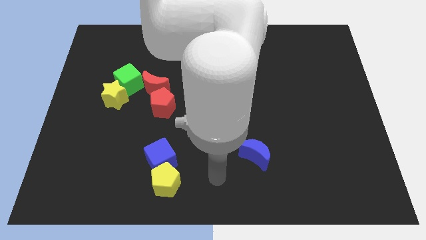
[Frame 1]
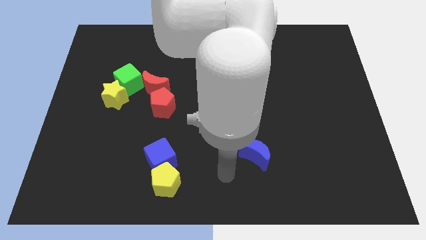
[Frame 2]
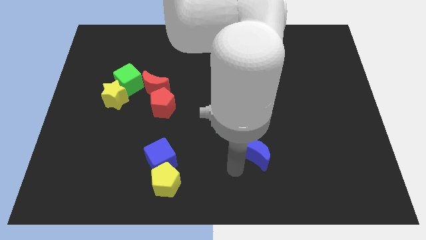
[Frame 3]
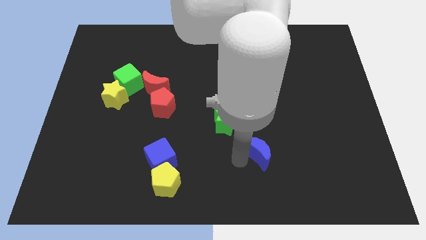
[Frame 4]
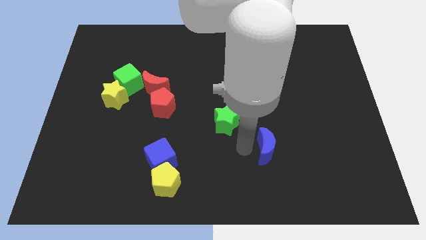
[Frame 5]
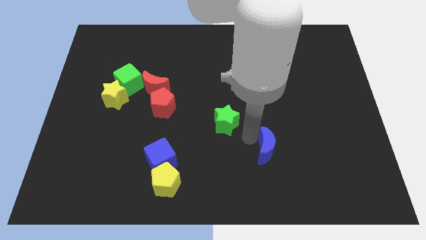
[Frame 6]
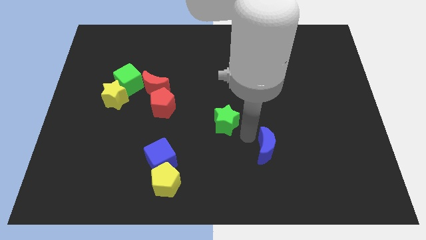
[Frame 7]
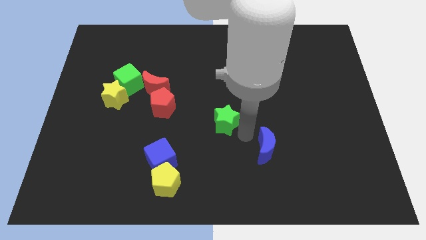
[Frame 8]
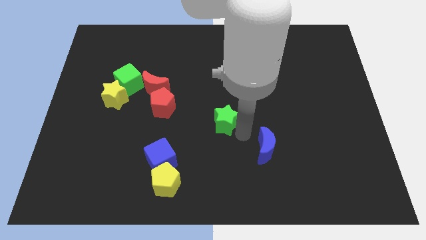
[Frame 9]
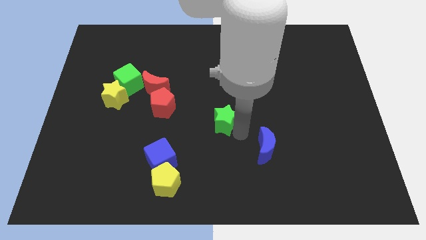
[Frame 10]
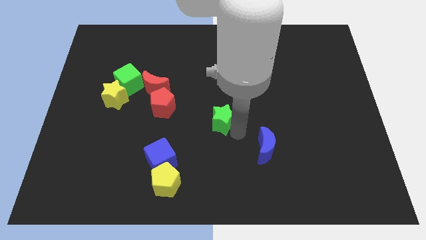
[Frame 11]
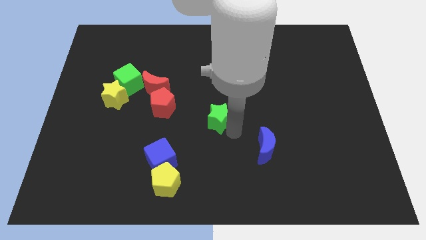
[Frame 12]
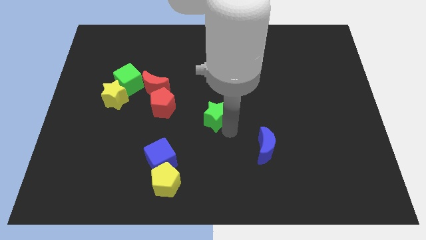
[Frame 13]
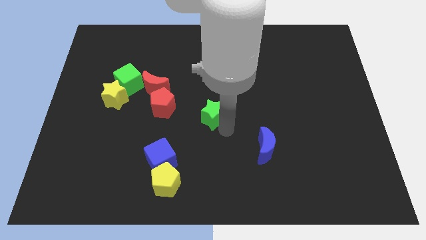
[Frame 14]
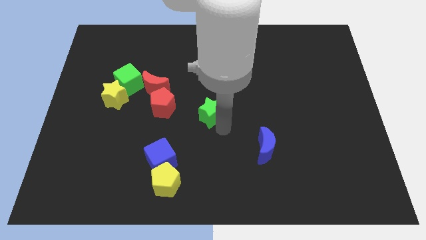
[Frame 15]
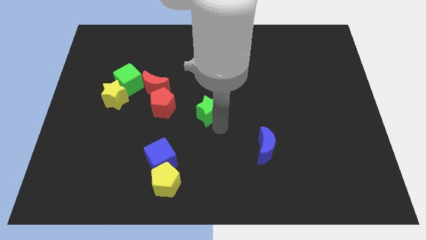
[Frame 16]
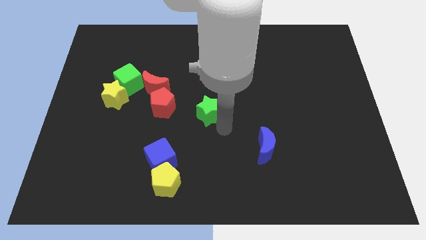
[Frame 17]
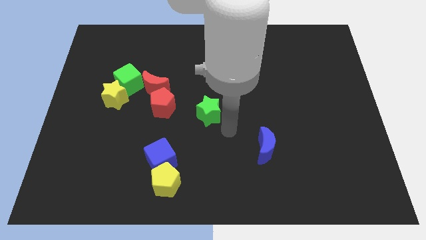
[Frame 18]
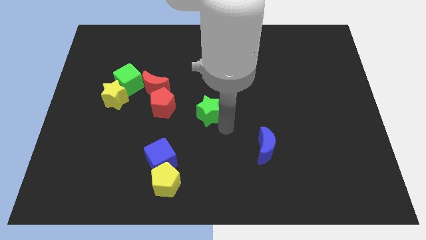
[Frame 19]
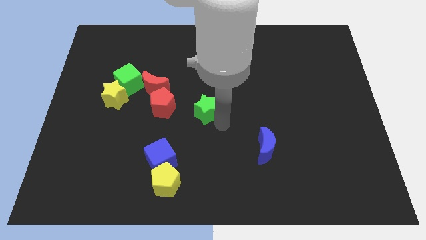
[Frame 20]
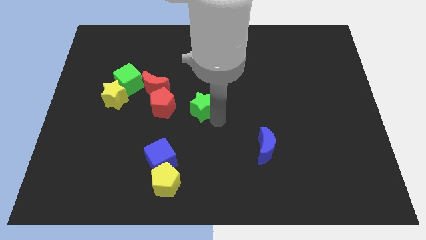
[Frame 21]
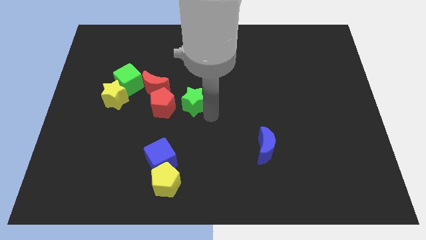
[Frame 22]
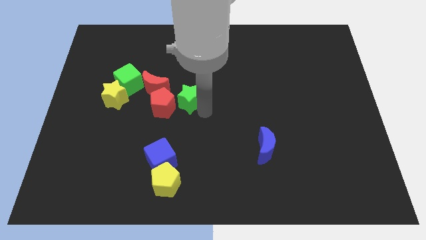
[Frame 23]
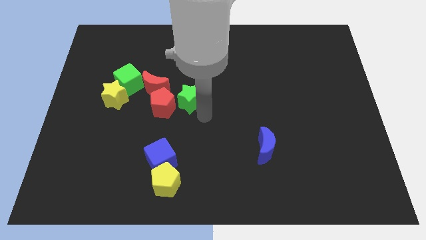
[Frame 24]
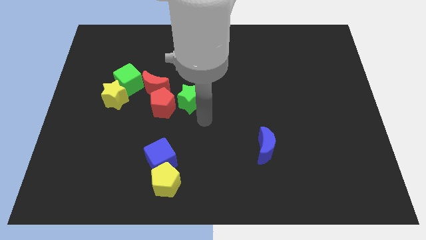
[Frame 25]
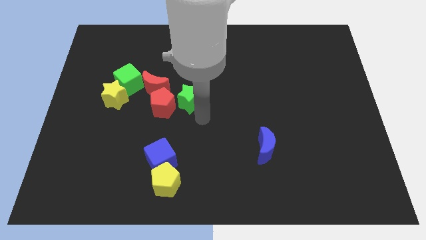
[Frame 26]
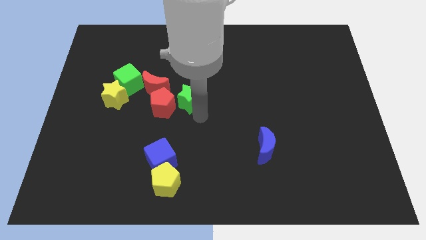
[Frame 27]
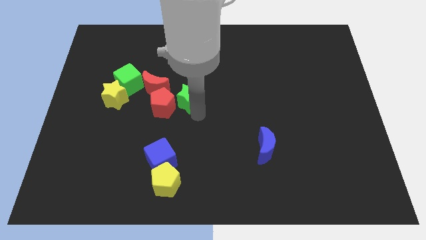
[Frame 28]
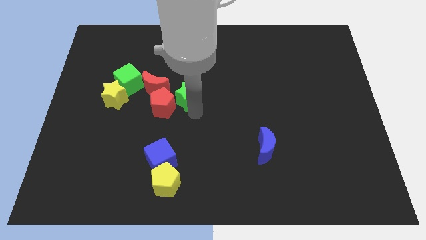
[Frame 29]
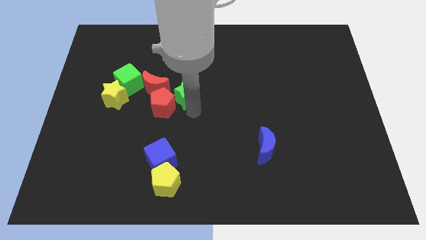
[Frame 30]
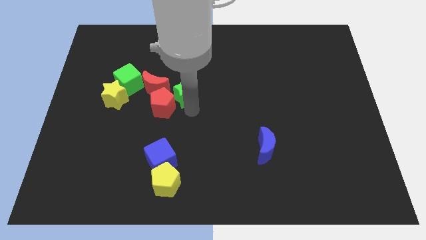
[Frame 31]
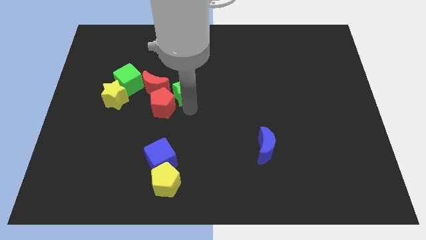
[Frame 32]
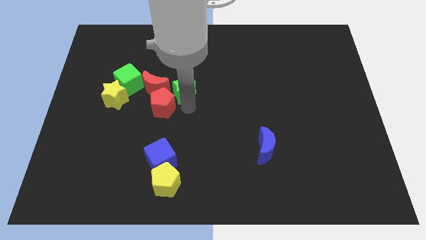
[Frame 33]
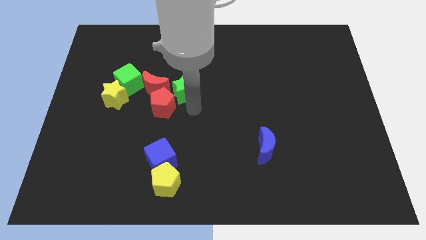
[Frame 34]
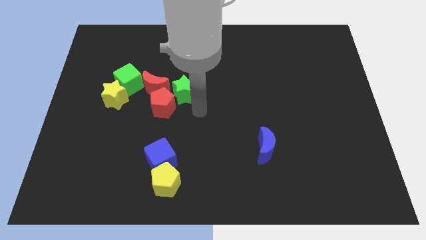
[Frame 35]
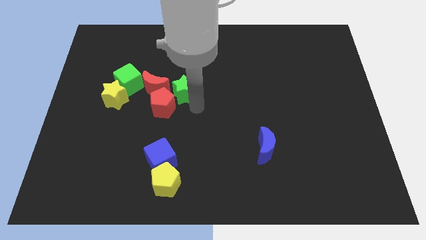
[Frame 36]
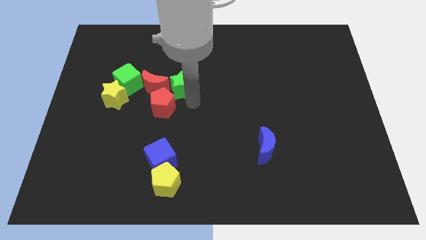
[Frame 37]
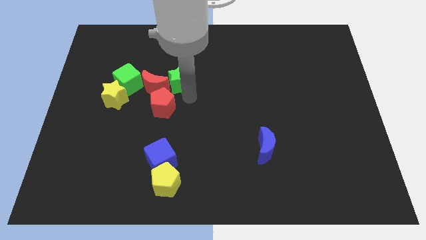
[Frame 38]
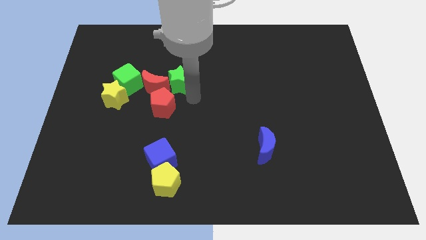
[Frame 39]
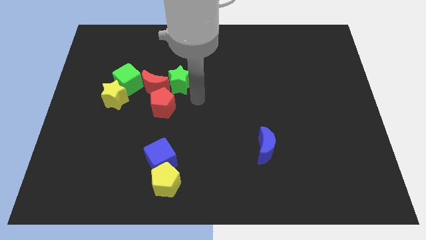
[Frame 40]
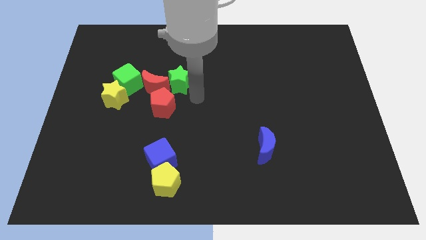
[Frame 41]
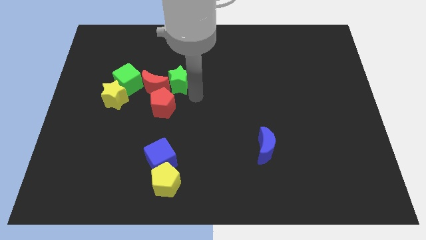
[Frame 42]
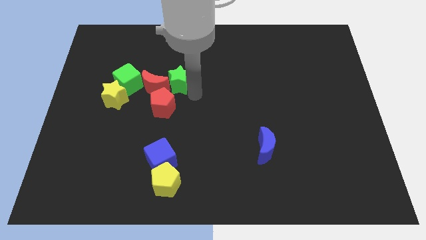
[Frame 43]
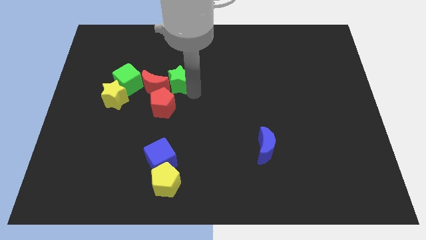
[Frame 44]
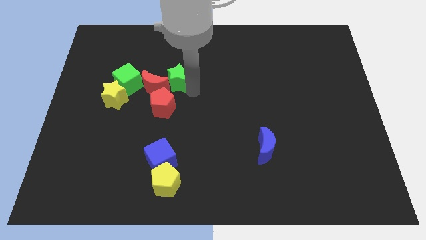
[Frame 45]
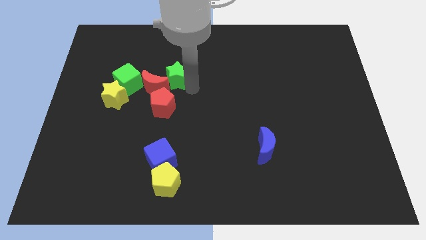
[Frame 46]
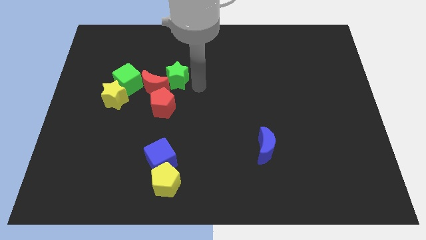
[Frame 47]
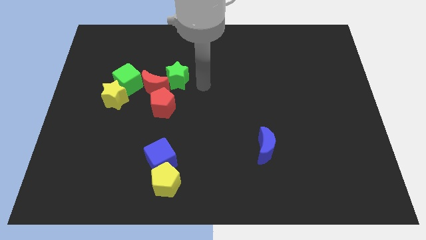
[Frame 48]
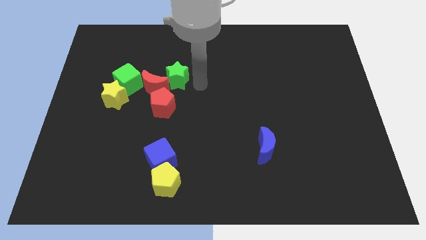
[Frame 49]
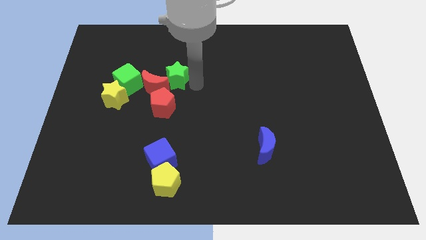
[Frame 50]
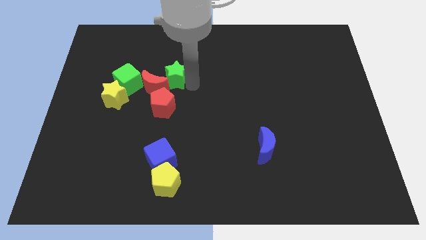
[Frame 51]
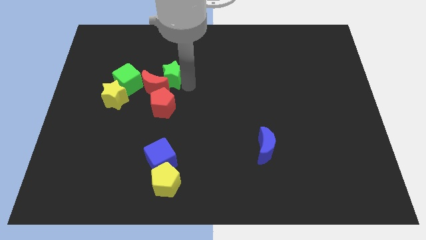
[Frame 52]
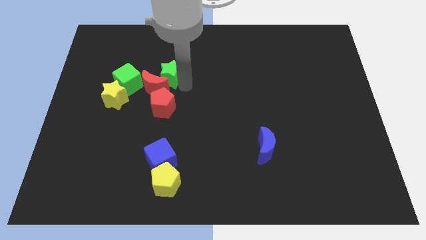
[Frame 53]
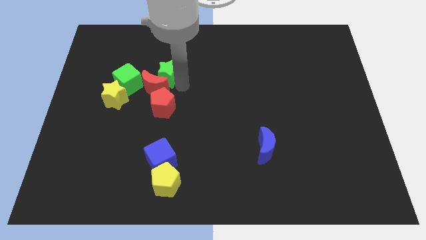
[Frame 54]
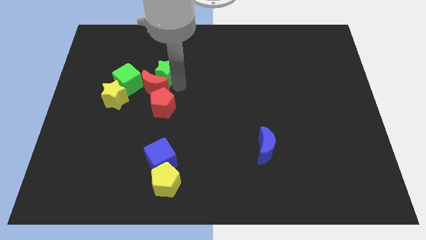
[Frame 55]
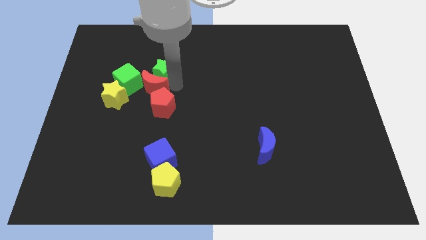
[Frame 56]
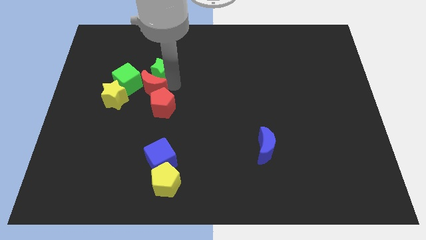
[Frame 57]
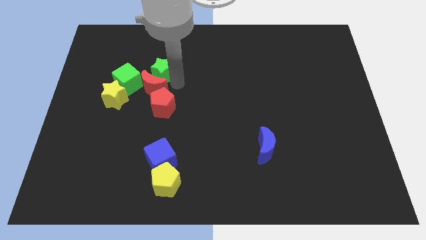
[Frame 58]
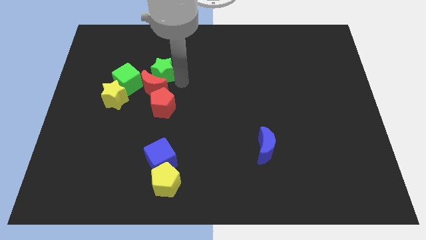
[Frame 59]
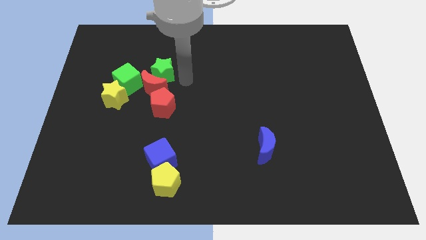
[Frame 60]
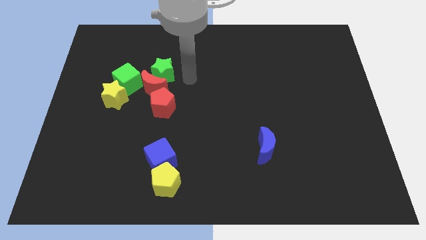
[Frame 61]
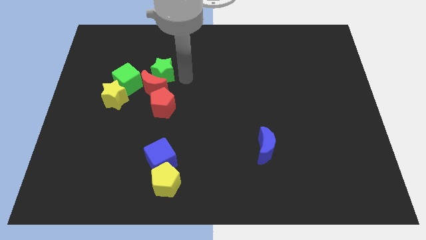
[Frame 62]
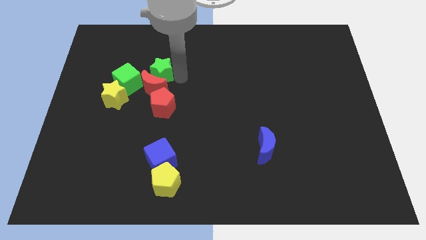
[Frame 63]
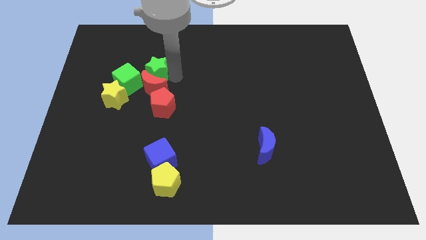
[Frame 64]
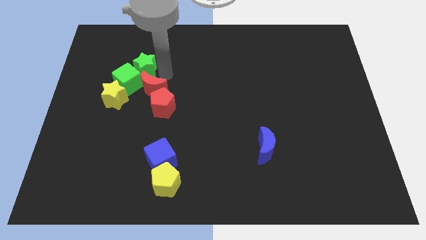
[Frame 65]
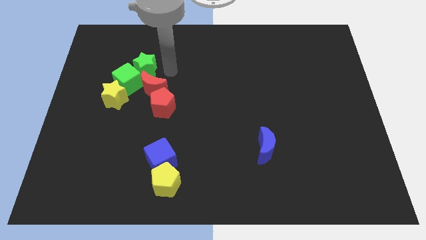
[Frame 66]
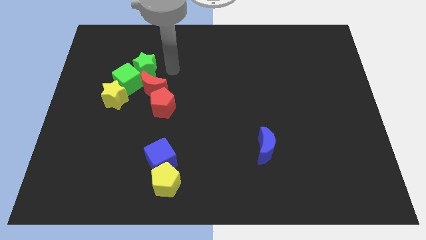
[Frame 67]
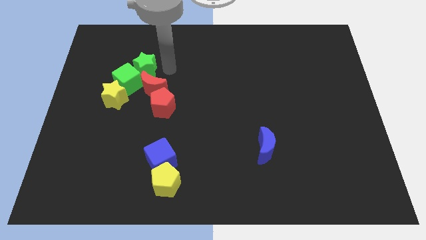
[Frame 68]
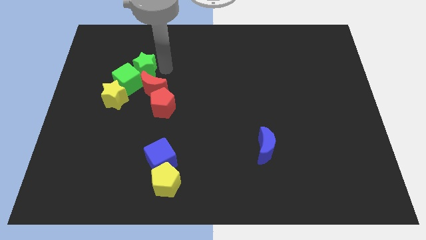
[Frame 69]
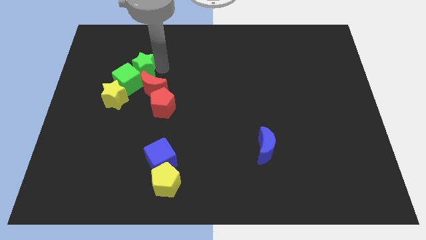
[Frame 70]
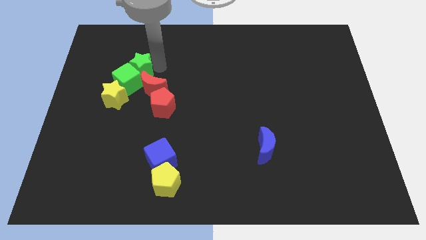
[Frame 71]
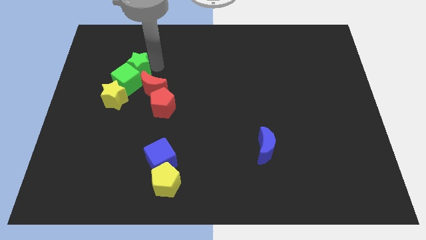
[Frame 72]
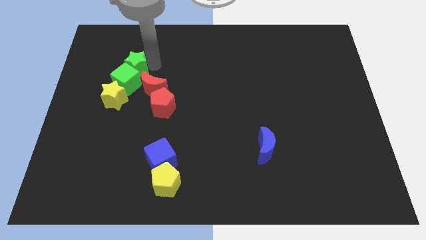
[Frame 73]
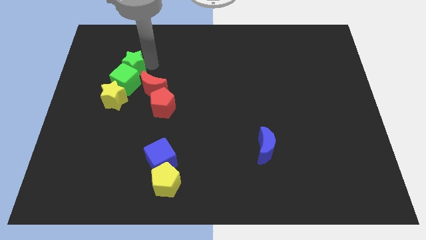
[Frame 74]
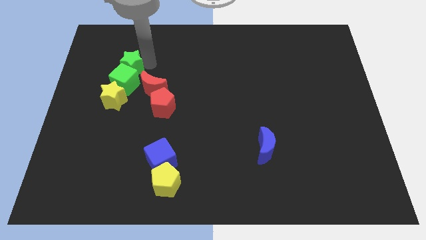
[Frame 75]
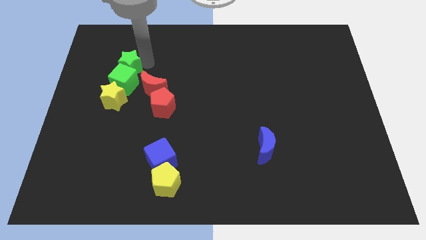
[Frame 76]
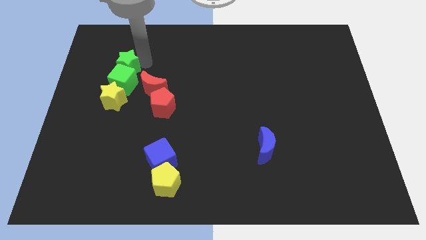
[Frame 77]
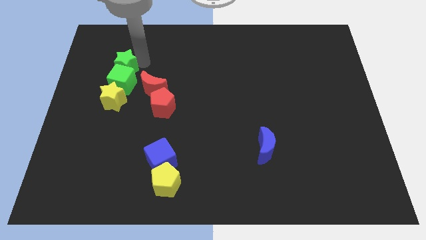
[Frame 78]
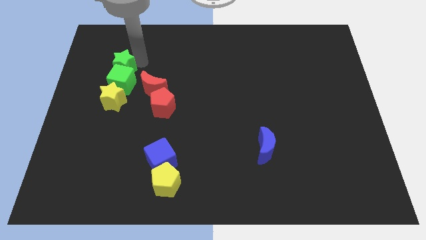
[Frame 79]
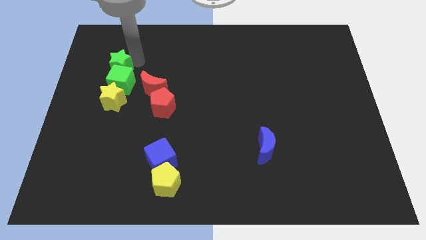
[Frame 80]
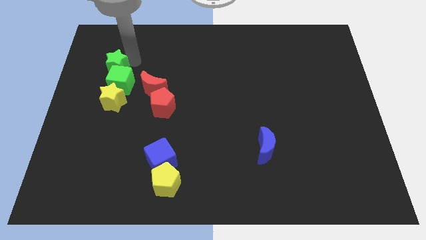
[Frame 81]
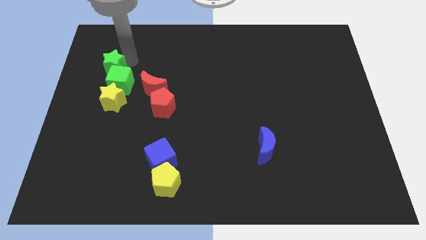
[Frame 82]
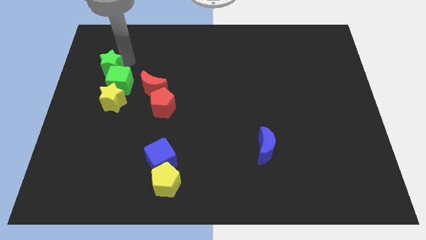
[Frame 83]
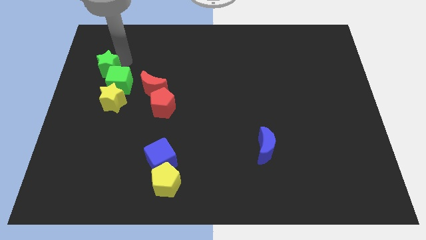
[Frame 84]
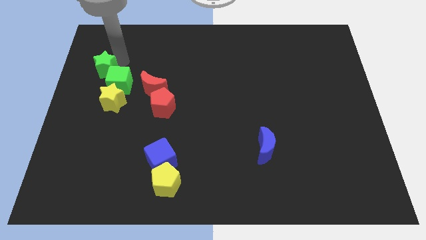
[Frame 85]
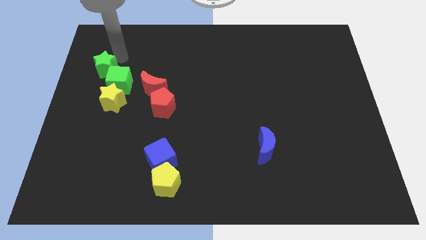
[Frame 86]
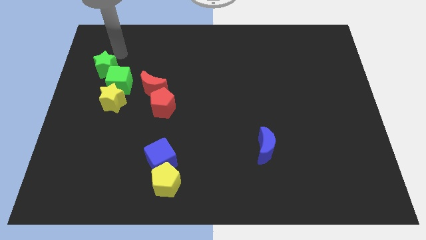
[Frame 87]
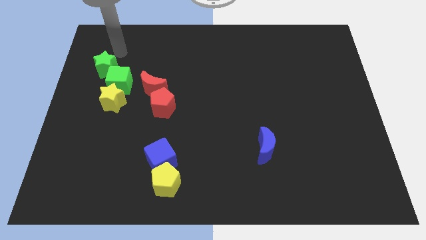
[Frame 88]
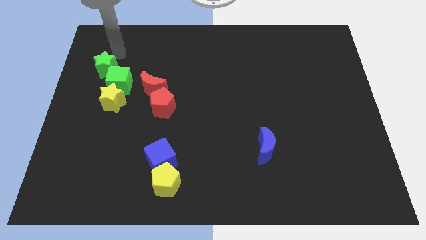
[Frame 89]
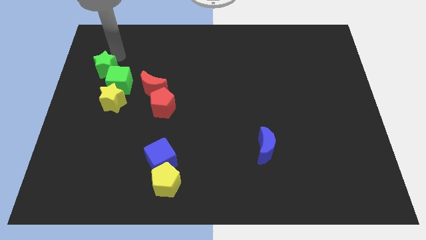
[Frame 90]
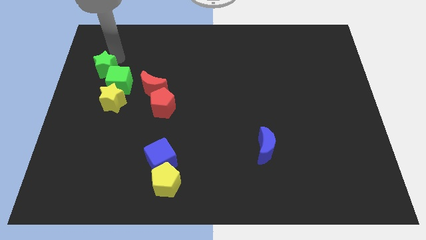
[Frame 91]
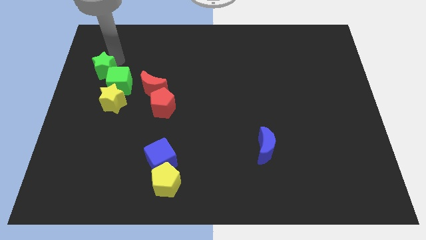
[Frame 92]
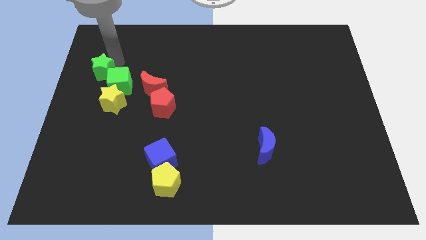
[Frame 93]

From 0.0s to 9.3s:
slide the green star to the top left side of the yellow star
